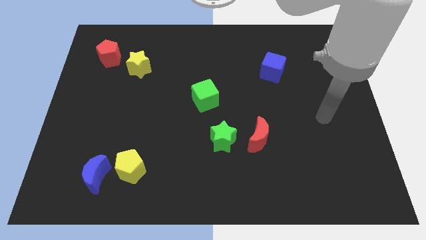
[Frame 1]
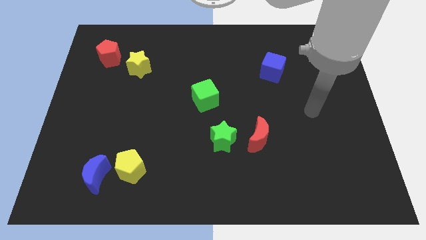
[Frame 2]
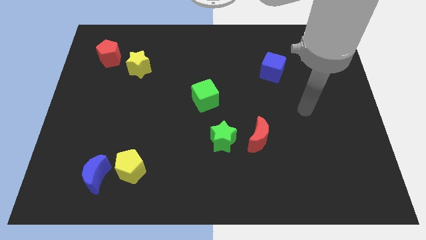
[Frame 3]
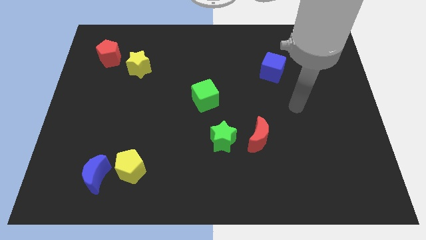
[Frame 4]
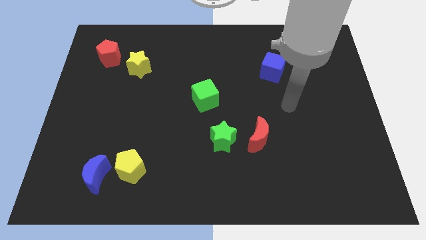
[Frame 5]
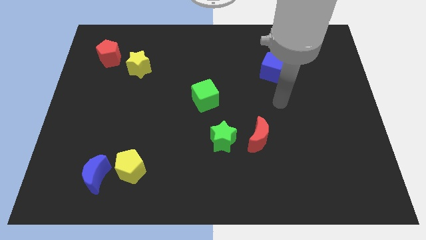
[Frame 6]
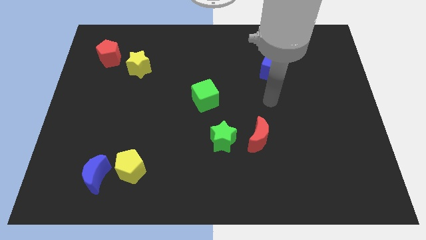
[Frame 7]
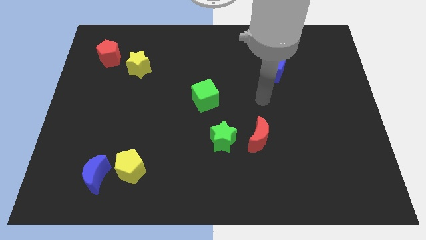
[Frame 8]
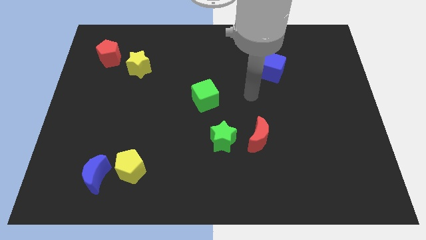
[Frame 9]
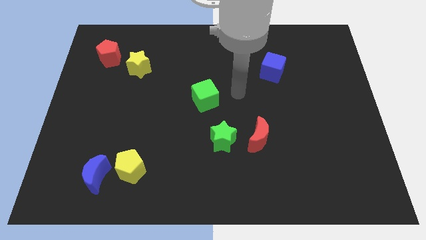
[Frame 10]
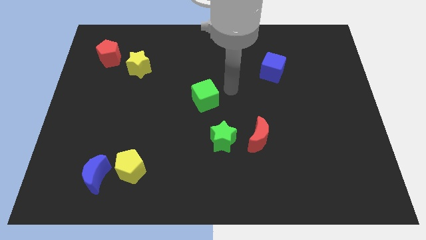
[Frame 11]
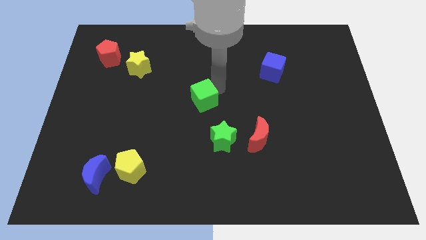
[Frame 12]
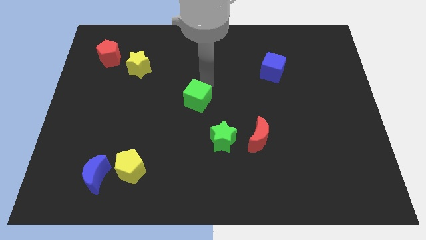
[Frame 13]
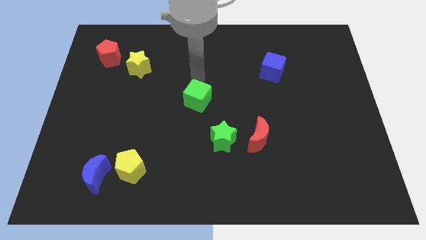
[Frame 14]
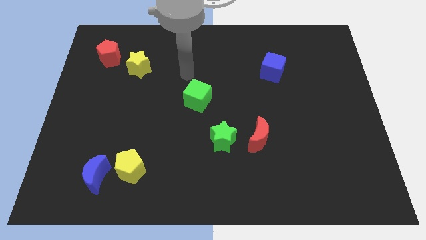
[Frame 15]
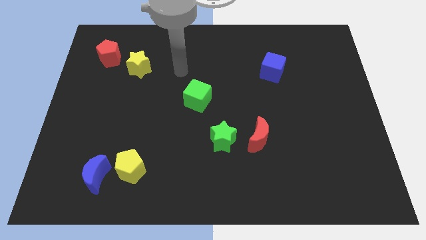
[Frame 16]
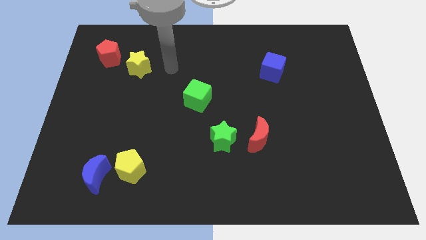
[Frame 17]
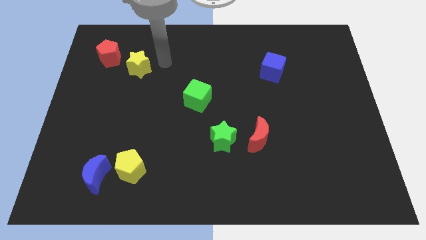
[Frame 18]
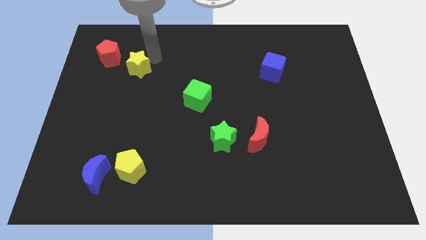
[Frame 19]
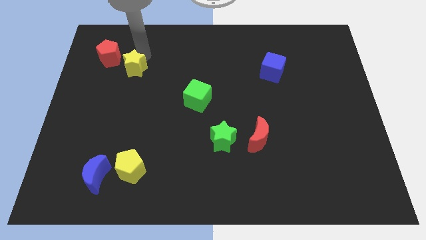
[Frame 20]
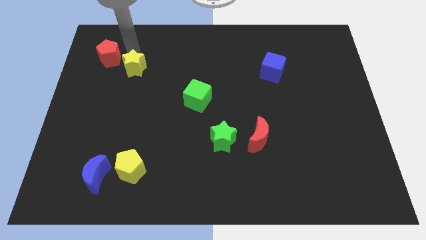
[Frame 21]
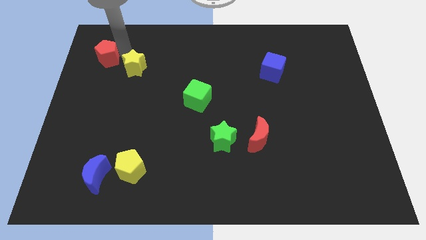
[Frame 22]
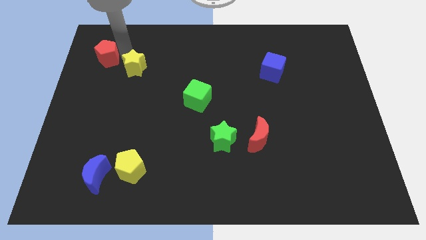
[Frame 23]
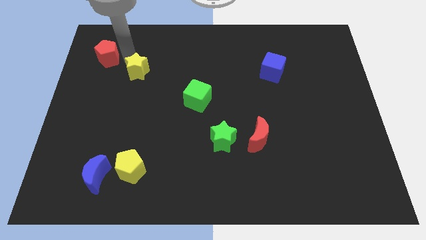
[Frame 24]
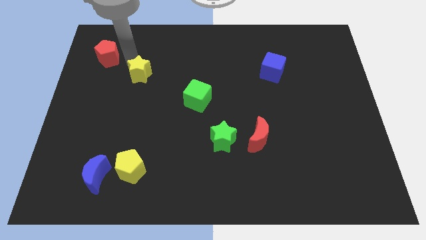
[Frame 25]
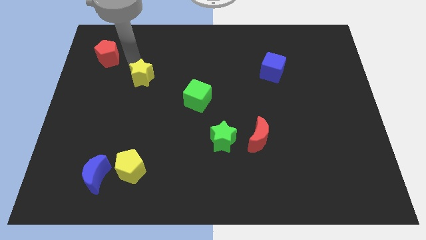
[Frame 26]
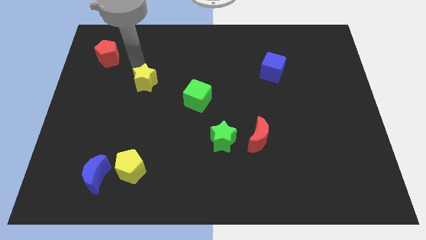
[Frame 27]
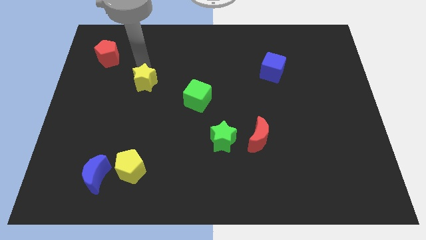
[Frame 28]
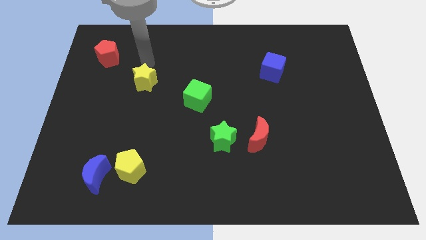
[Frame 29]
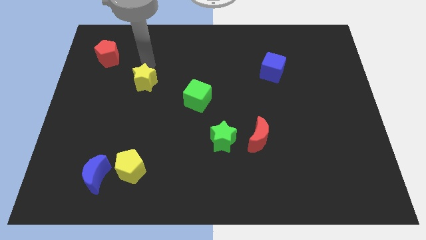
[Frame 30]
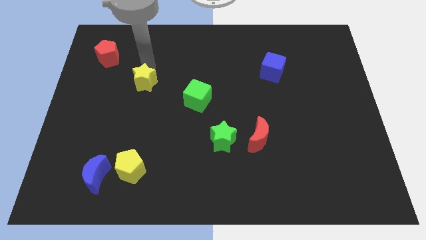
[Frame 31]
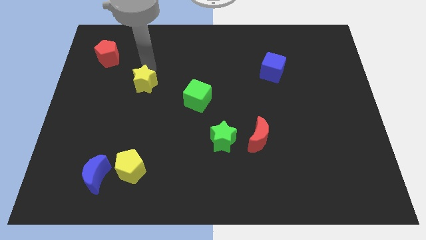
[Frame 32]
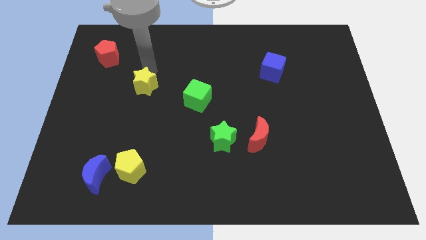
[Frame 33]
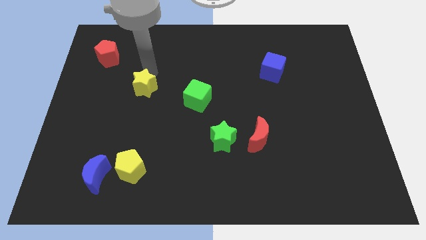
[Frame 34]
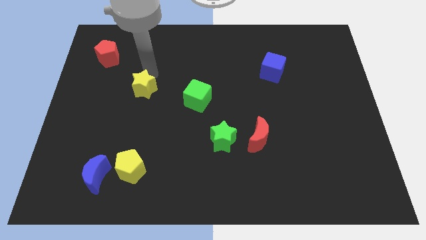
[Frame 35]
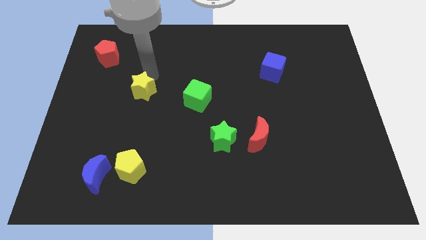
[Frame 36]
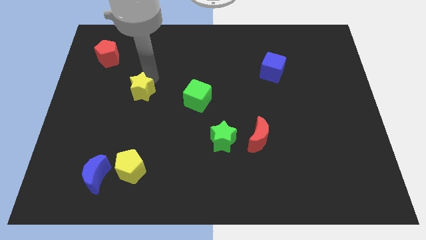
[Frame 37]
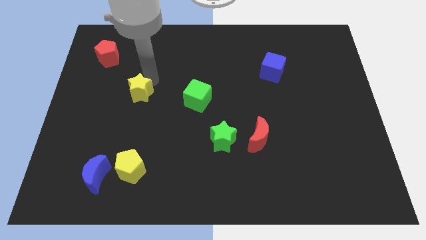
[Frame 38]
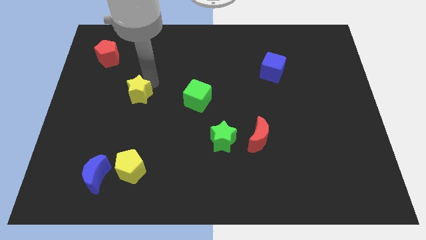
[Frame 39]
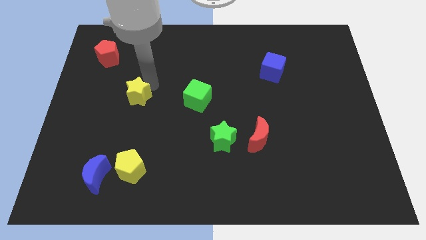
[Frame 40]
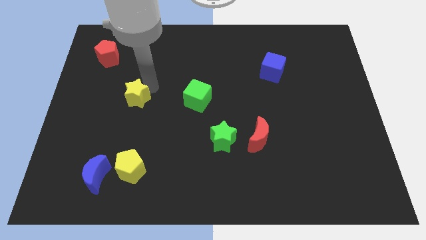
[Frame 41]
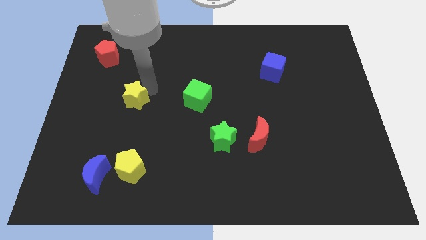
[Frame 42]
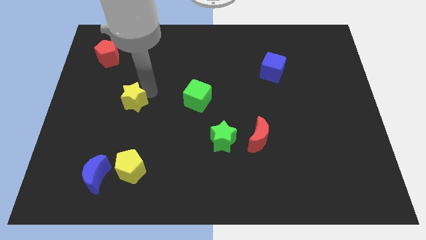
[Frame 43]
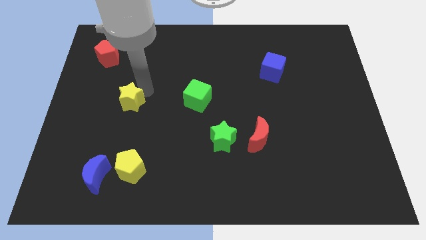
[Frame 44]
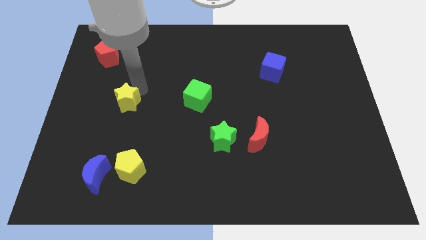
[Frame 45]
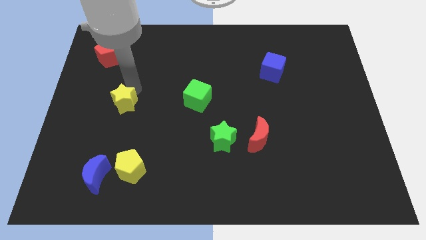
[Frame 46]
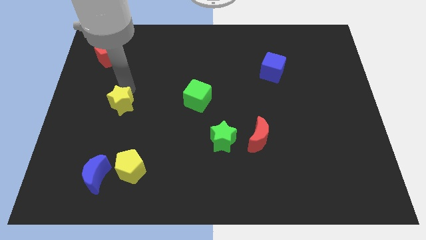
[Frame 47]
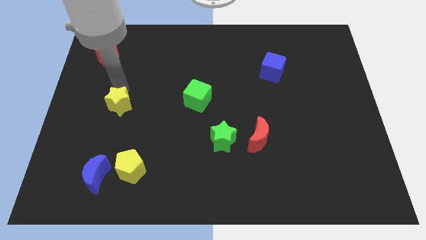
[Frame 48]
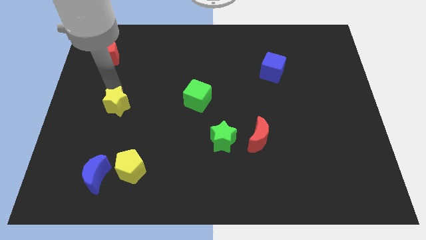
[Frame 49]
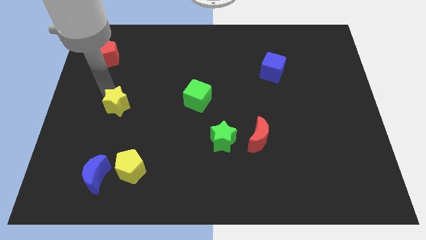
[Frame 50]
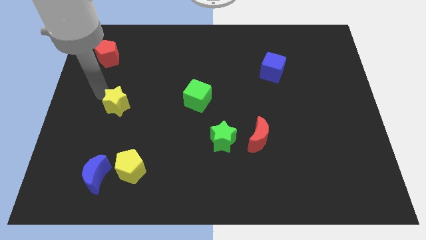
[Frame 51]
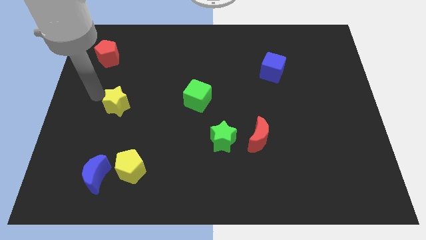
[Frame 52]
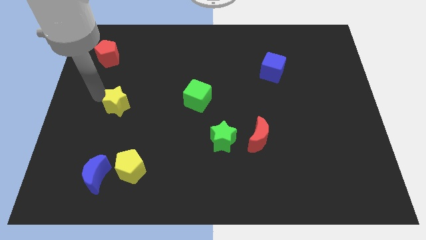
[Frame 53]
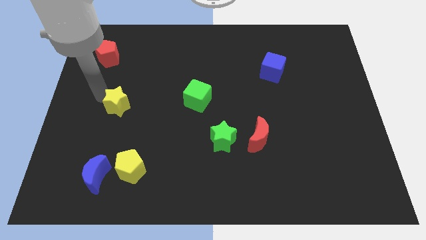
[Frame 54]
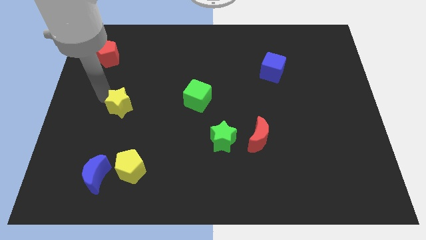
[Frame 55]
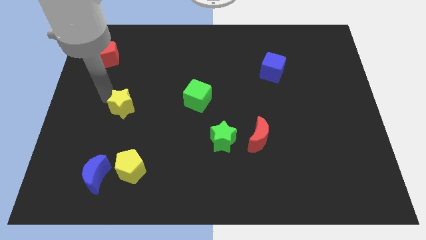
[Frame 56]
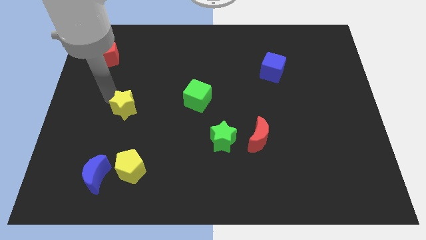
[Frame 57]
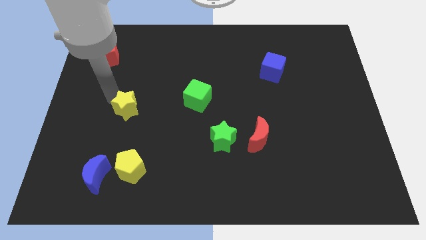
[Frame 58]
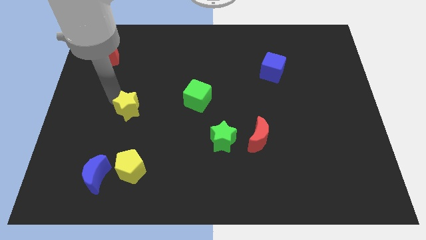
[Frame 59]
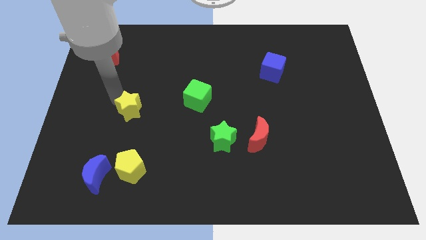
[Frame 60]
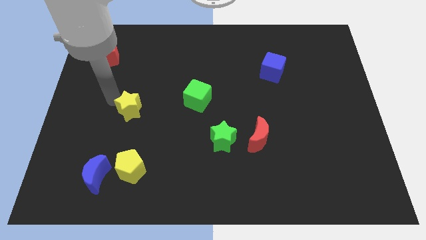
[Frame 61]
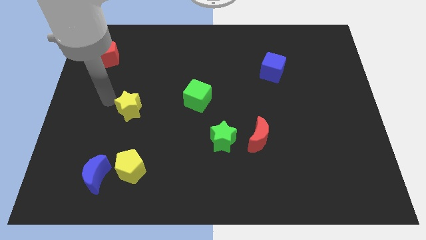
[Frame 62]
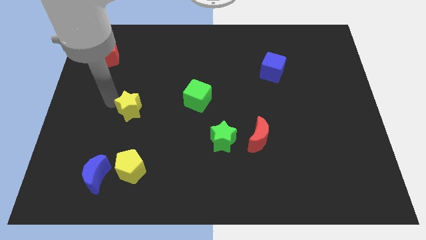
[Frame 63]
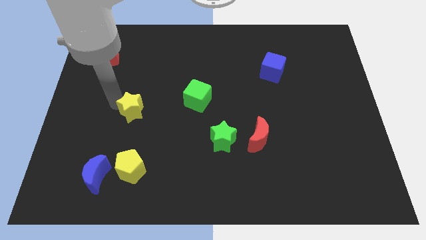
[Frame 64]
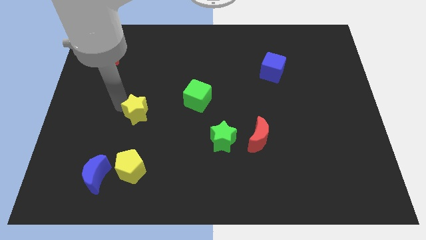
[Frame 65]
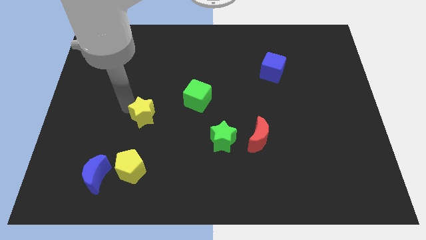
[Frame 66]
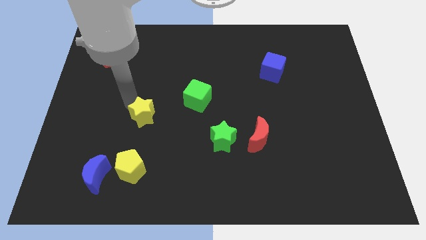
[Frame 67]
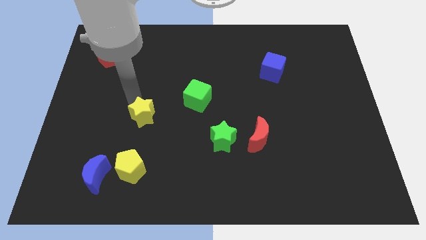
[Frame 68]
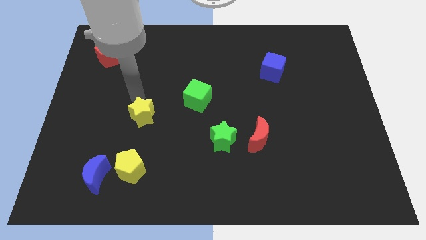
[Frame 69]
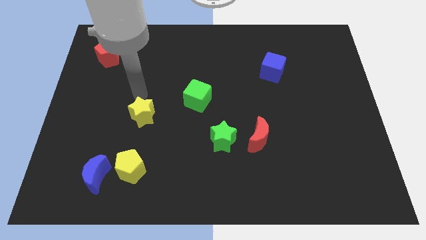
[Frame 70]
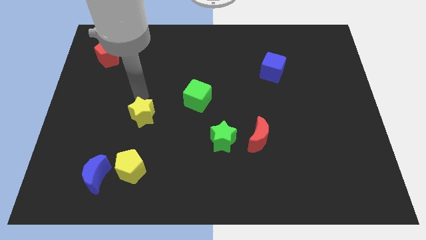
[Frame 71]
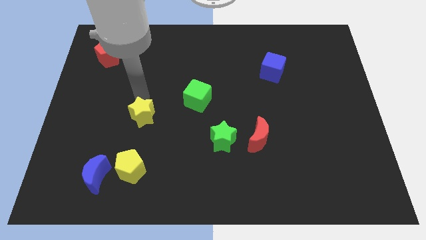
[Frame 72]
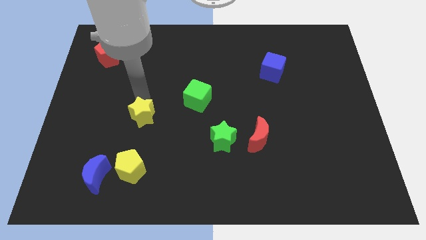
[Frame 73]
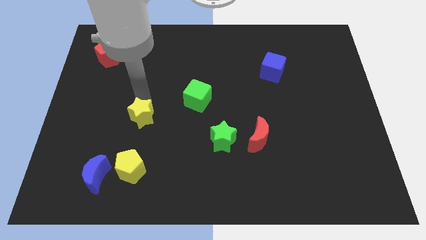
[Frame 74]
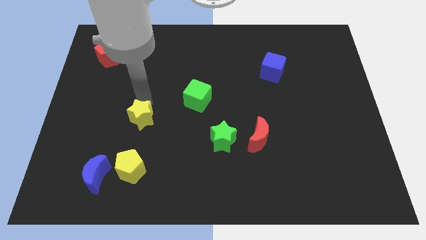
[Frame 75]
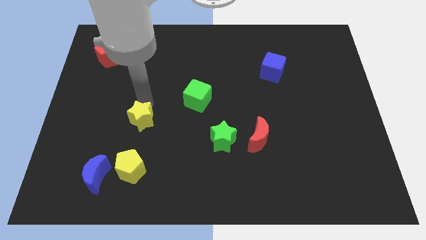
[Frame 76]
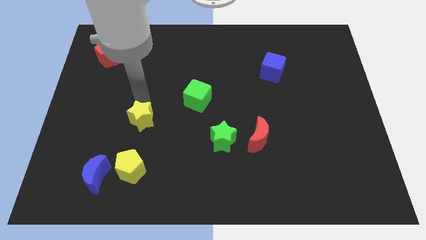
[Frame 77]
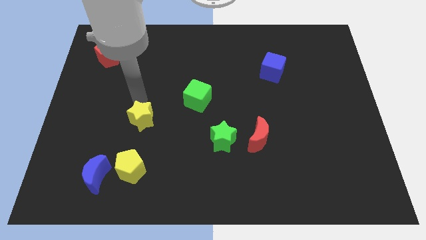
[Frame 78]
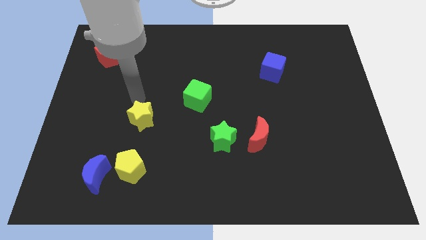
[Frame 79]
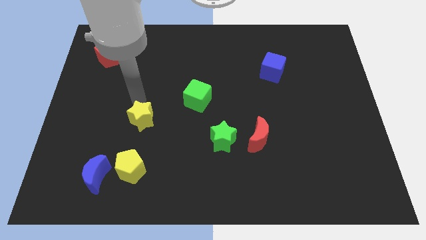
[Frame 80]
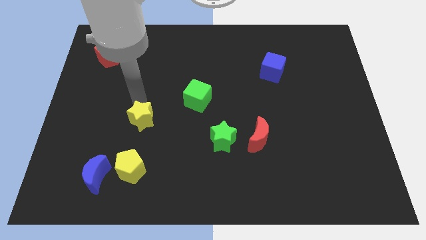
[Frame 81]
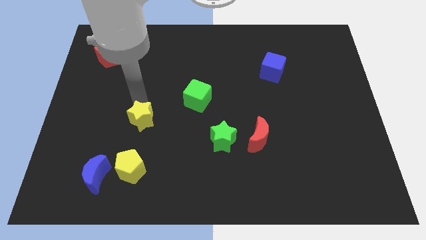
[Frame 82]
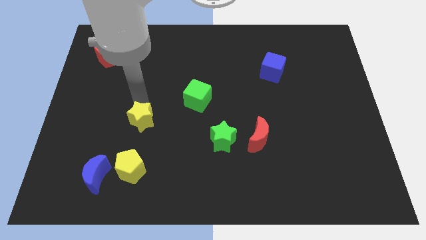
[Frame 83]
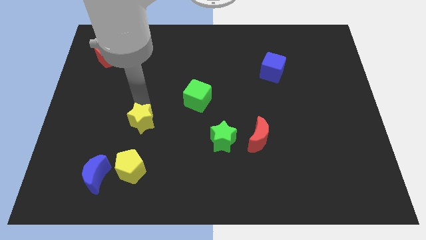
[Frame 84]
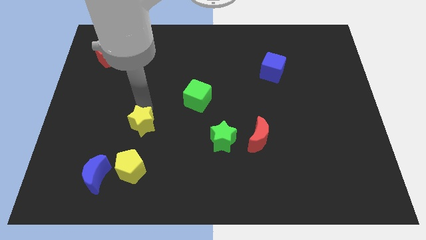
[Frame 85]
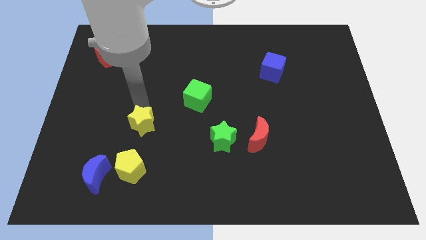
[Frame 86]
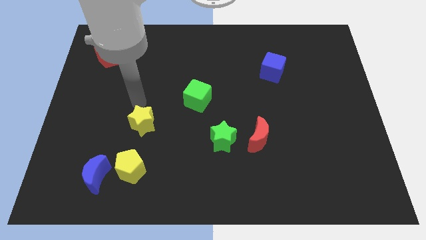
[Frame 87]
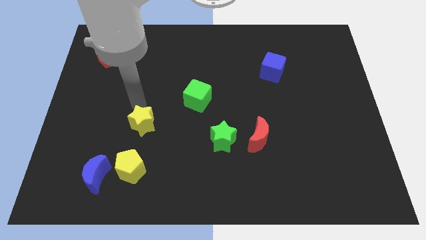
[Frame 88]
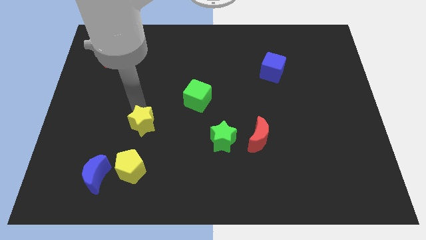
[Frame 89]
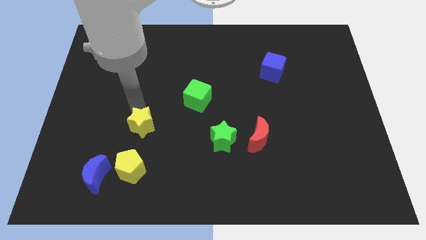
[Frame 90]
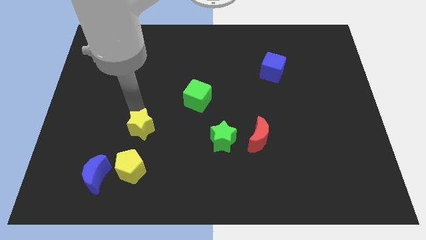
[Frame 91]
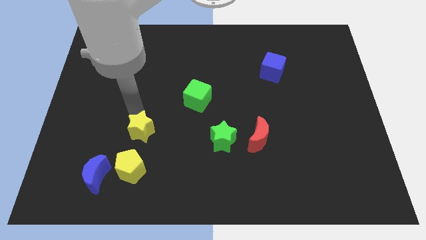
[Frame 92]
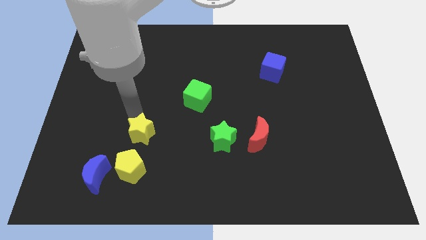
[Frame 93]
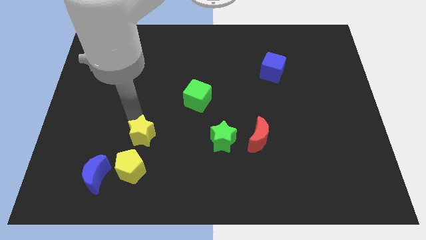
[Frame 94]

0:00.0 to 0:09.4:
slide the yellow star downwards
